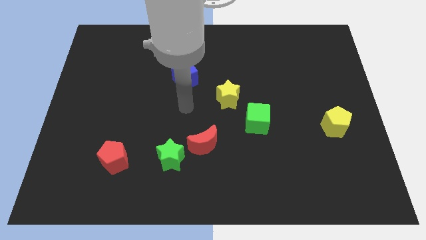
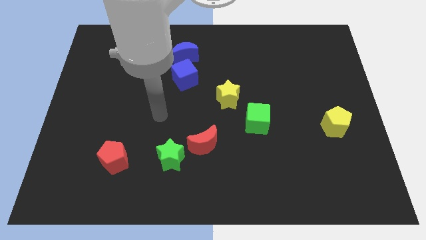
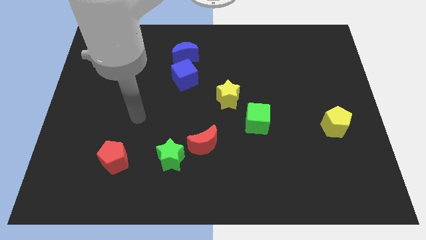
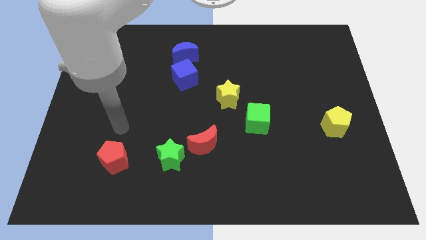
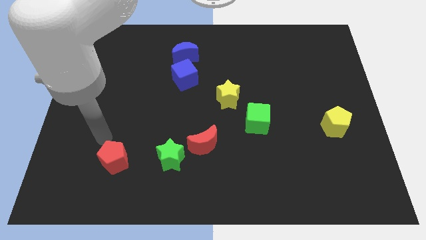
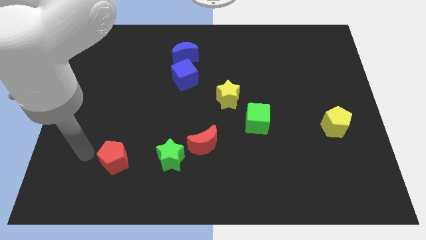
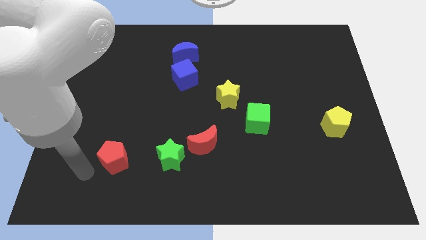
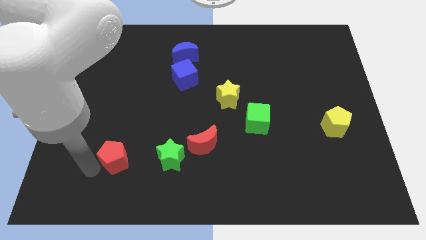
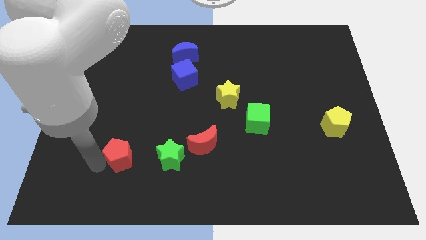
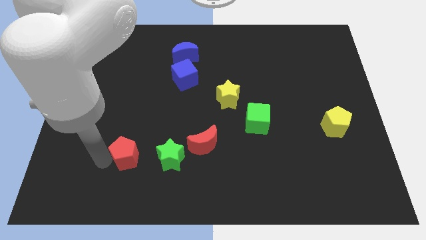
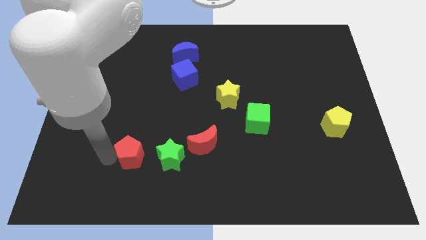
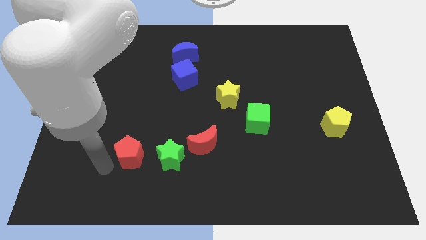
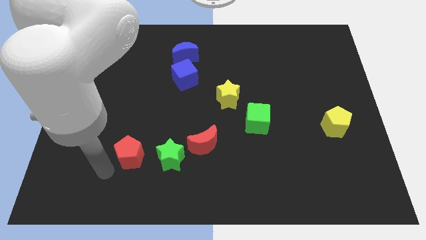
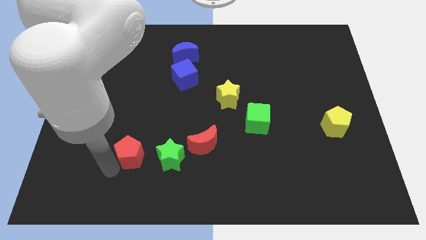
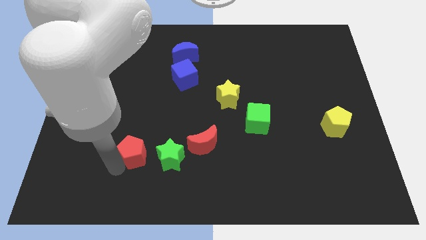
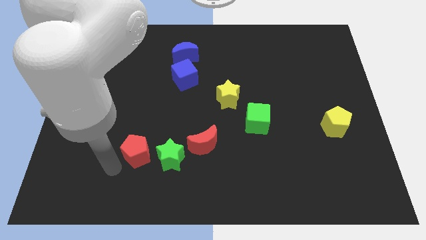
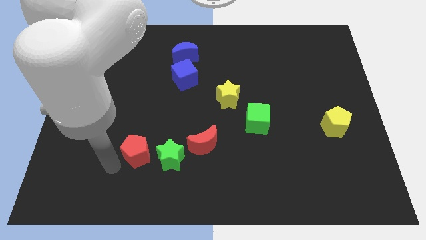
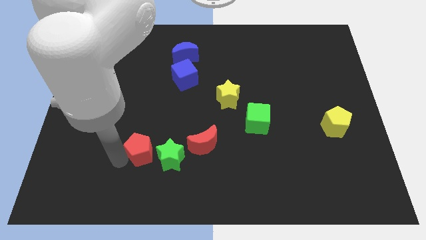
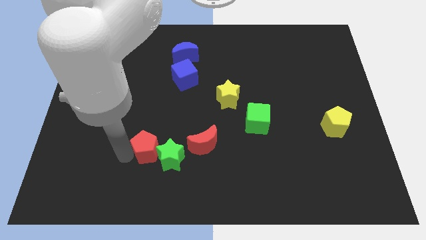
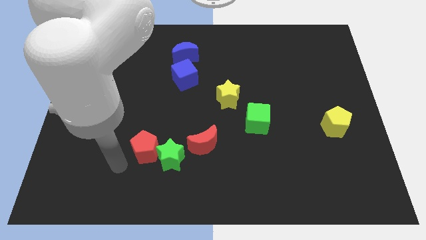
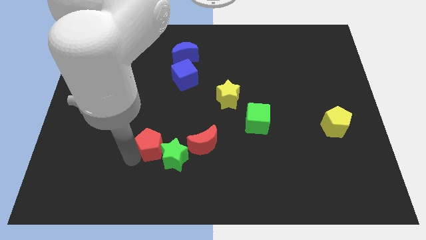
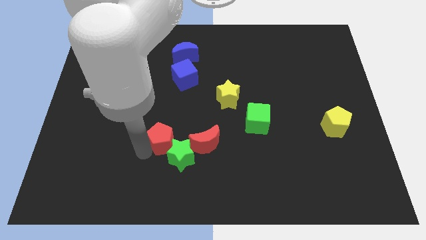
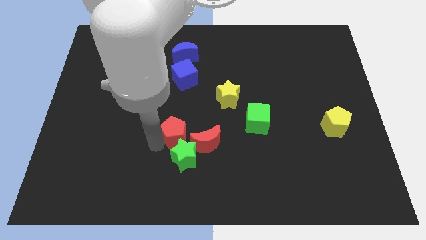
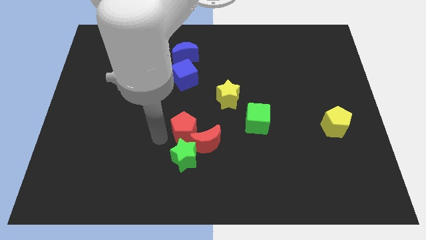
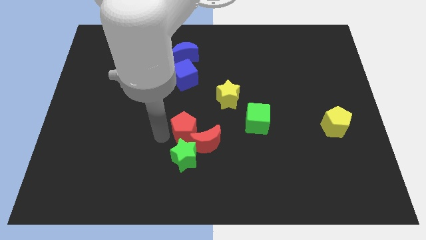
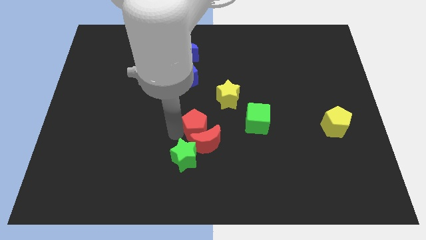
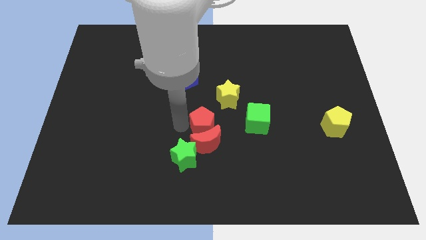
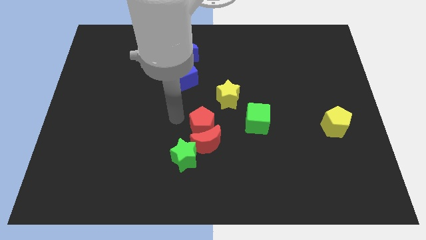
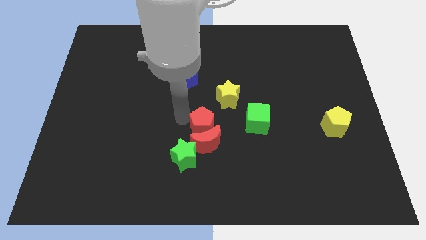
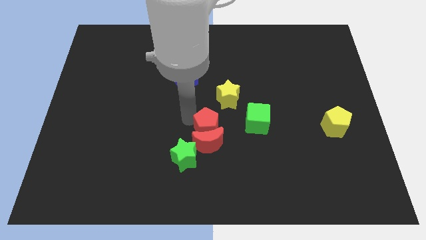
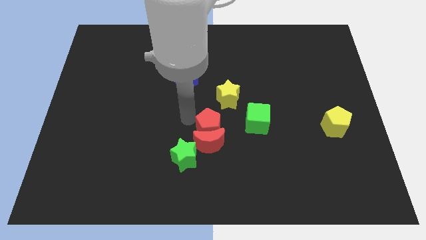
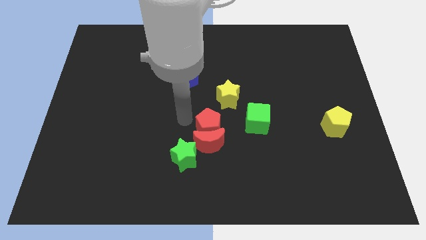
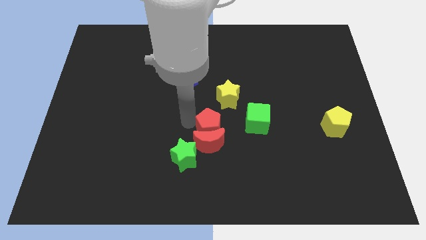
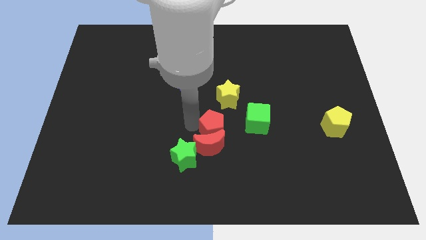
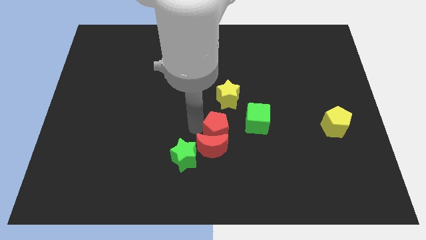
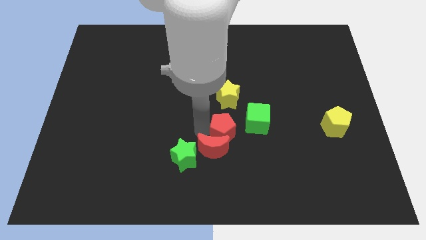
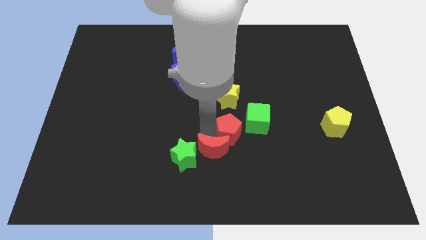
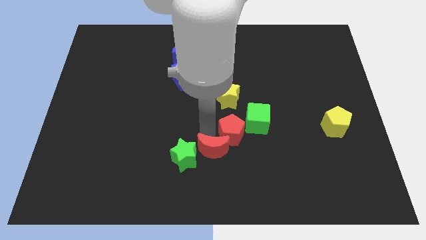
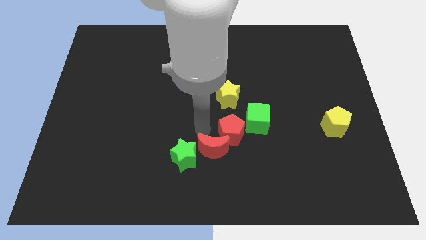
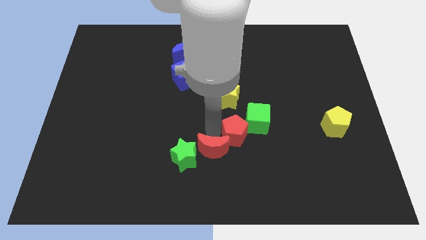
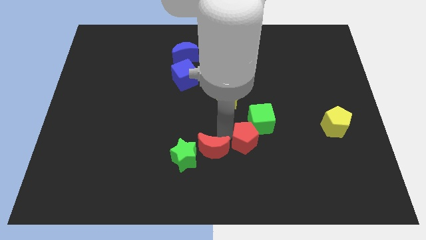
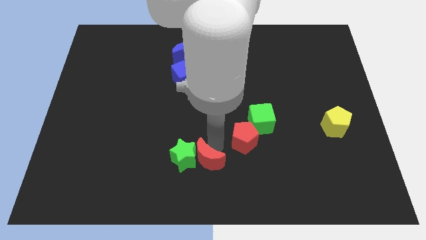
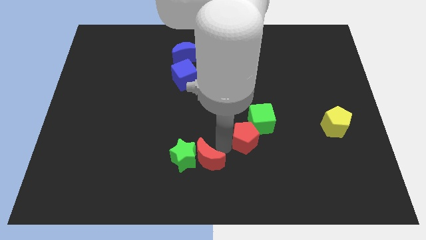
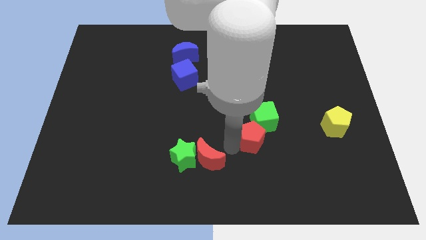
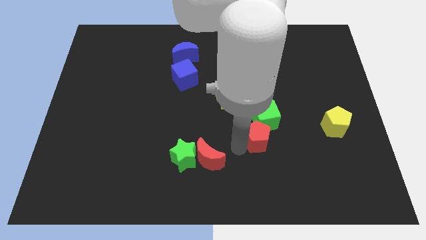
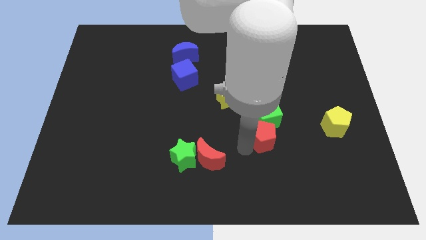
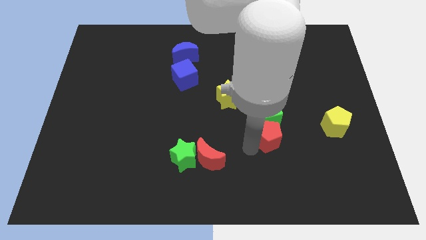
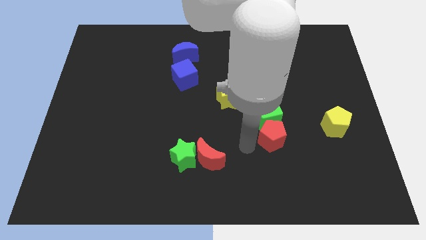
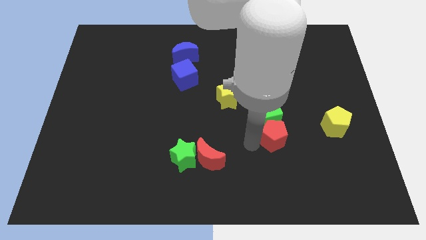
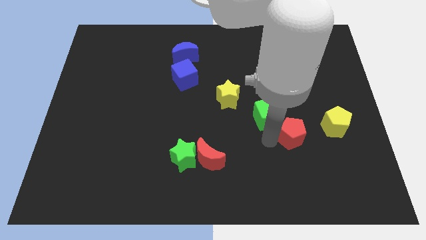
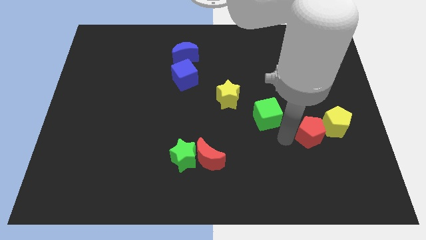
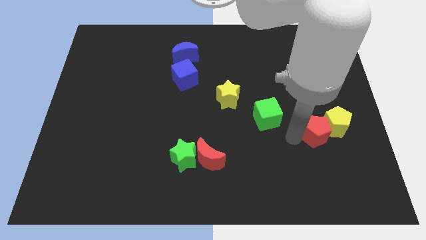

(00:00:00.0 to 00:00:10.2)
slide the red pentagon to the yellow pentagon

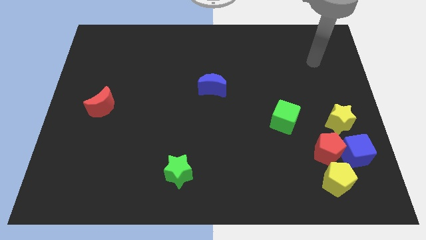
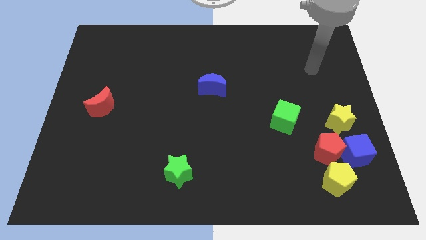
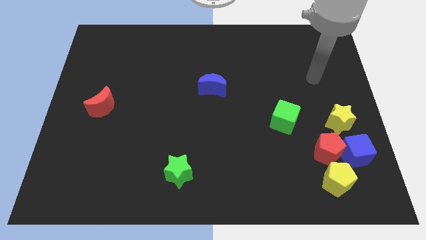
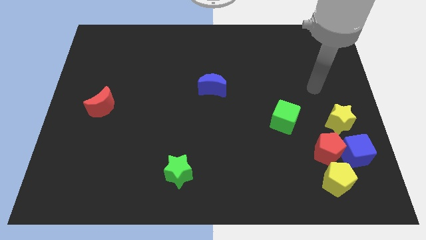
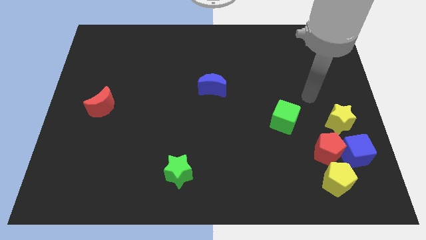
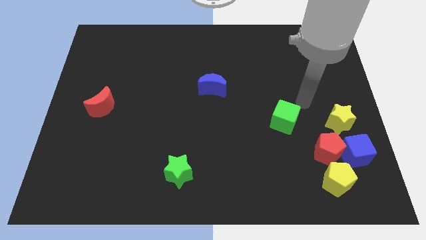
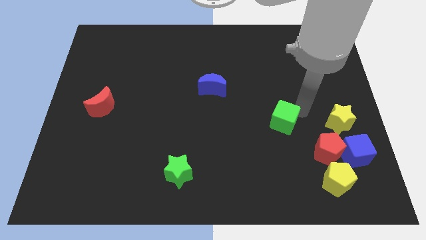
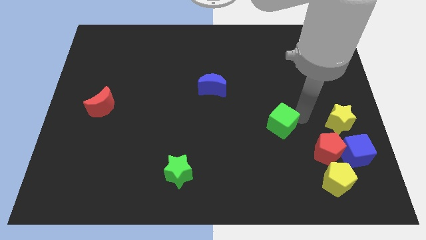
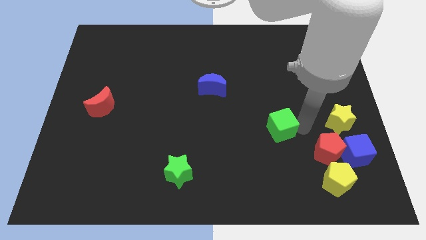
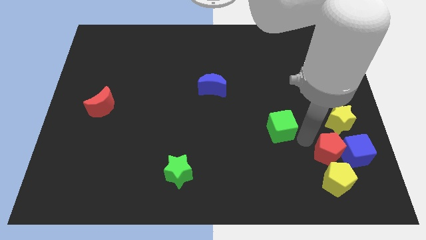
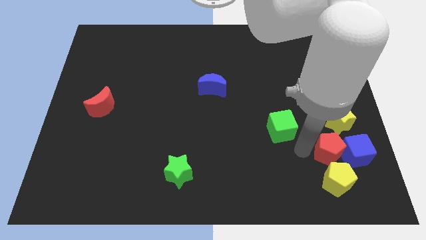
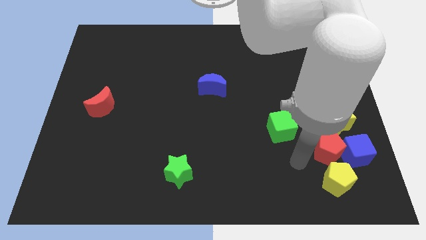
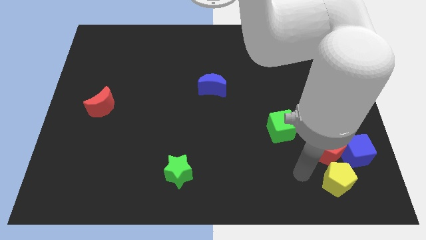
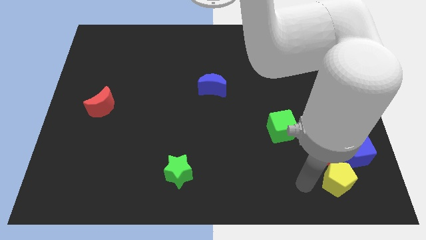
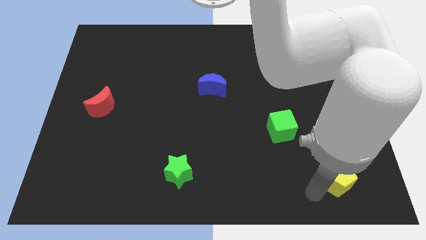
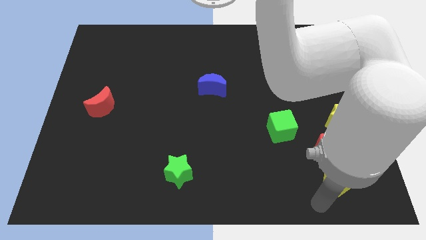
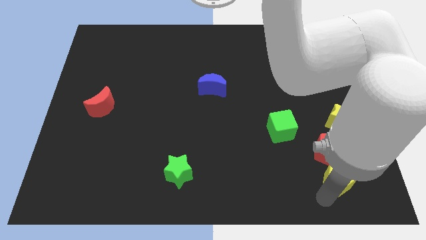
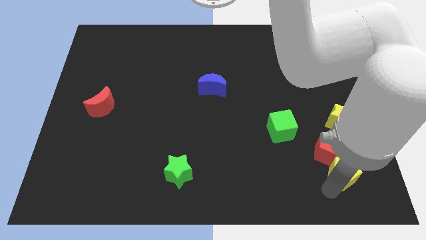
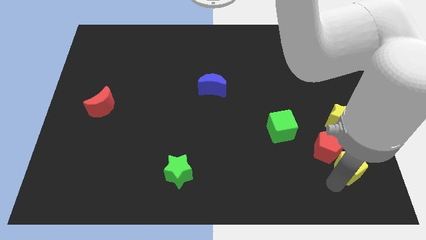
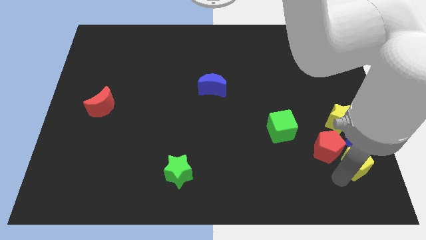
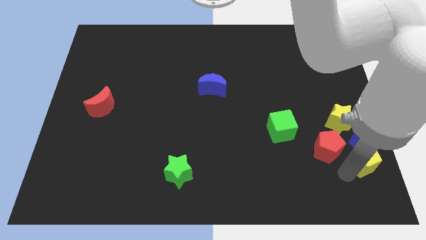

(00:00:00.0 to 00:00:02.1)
slide the yellow pentagon towards the blue cube
